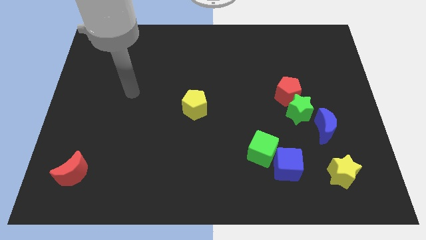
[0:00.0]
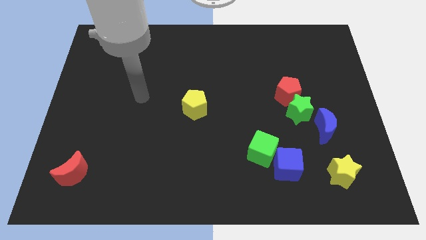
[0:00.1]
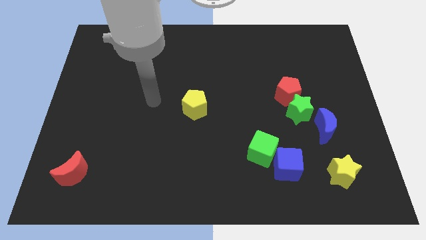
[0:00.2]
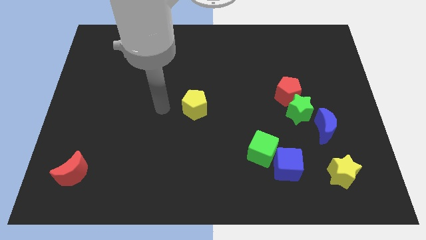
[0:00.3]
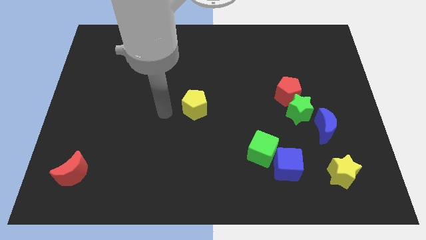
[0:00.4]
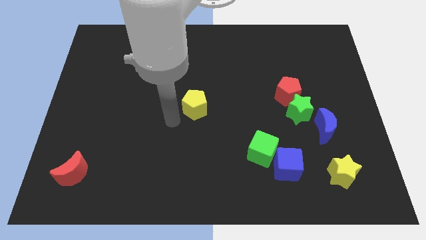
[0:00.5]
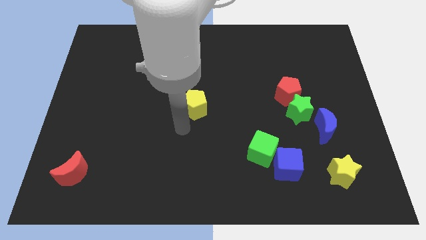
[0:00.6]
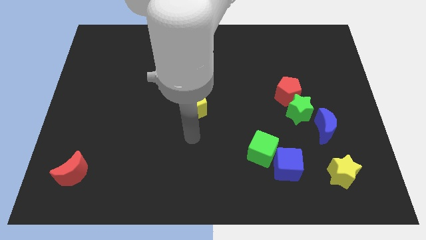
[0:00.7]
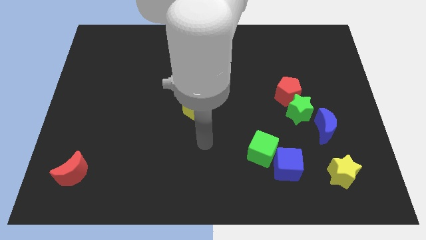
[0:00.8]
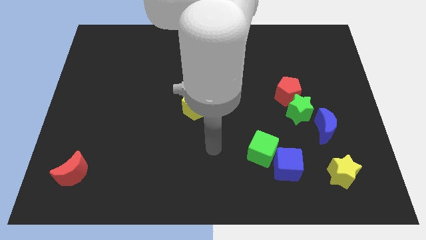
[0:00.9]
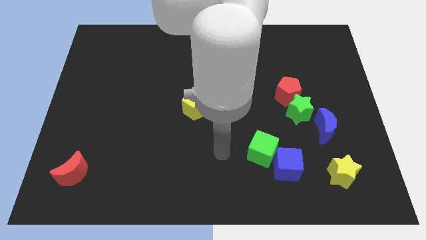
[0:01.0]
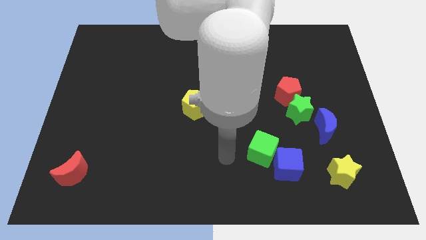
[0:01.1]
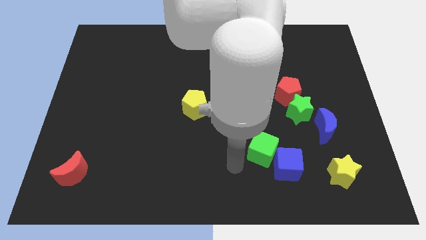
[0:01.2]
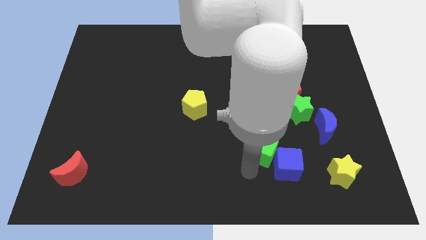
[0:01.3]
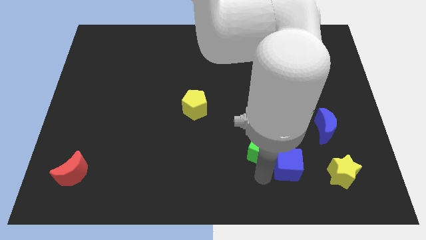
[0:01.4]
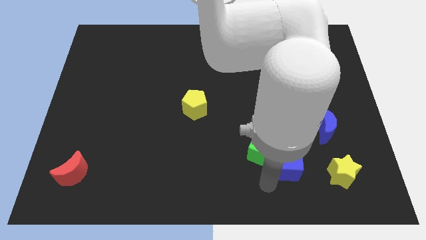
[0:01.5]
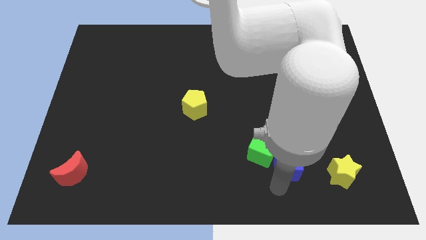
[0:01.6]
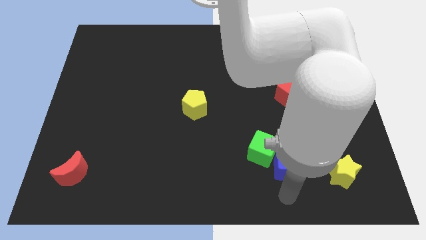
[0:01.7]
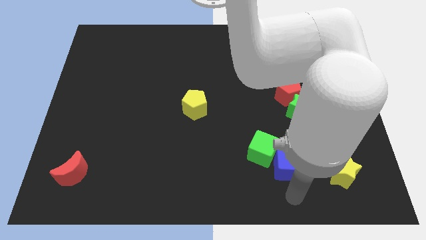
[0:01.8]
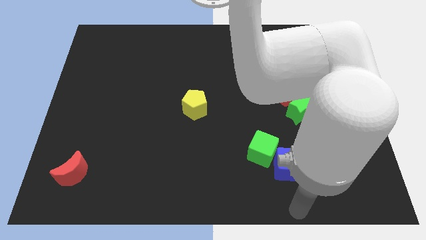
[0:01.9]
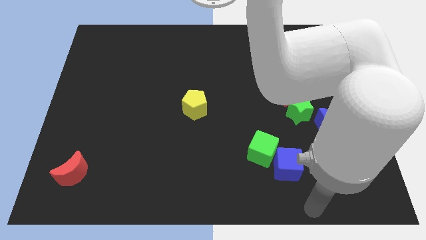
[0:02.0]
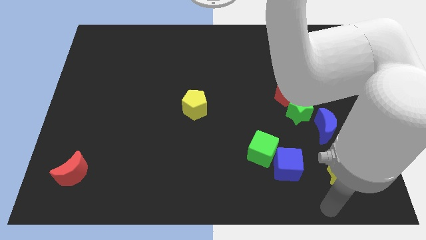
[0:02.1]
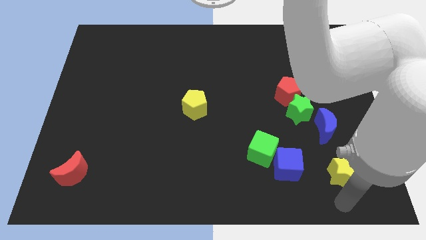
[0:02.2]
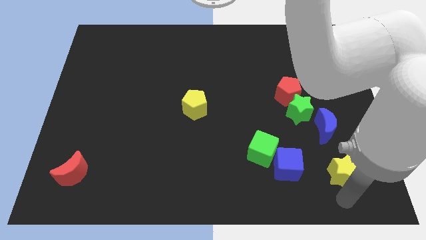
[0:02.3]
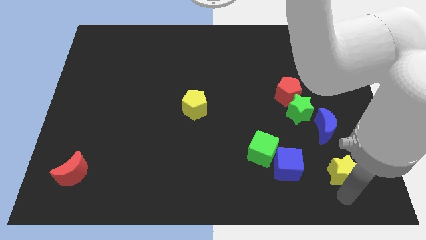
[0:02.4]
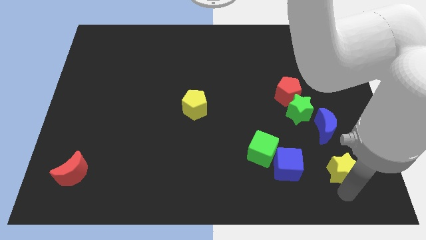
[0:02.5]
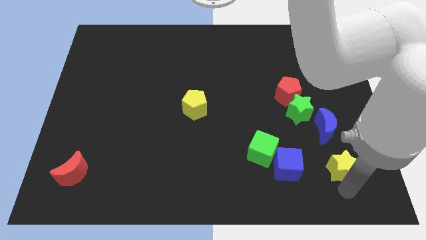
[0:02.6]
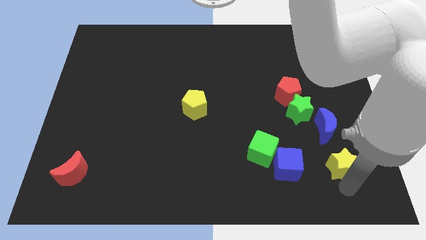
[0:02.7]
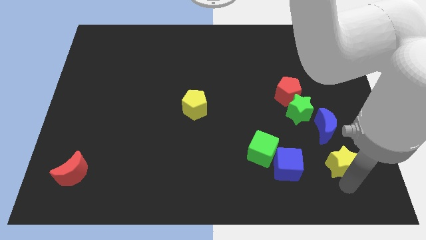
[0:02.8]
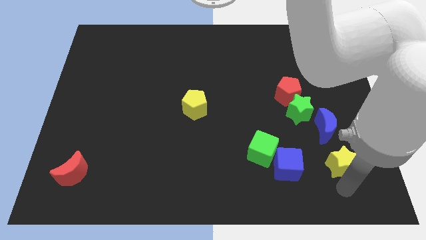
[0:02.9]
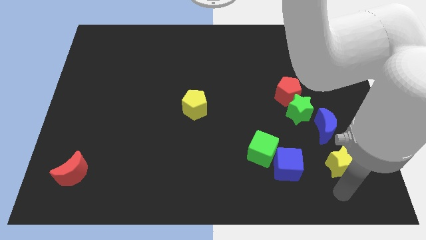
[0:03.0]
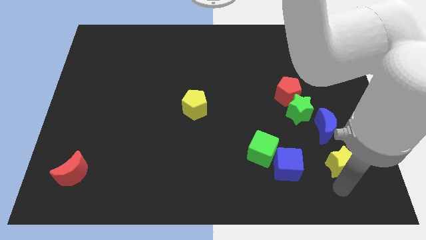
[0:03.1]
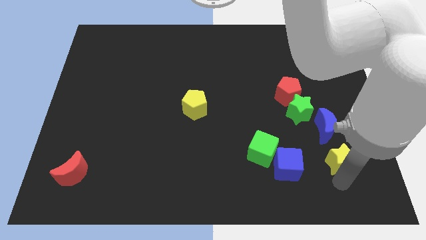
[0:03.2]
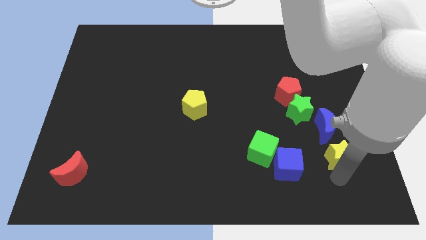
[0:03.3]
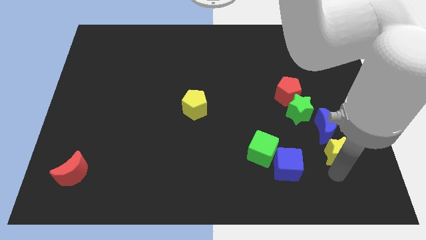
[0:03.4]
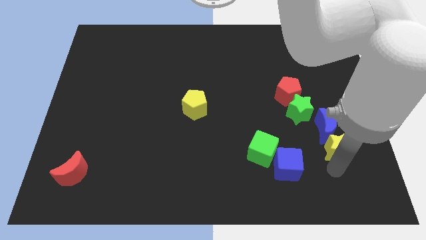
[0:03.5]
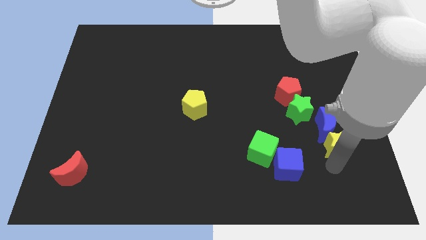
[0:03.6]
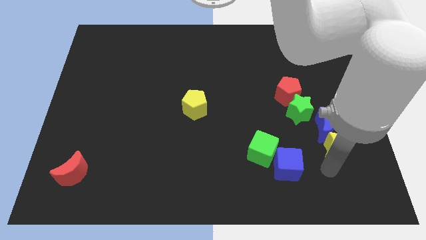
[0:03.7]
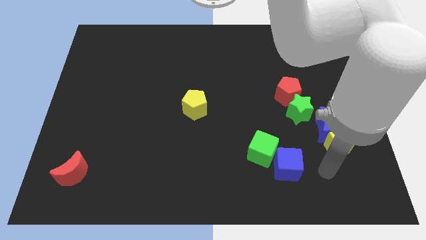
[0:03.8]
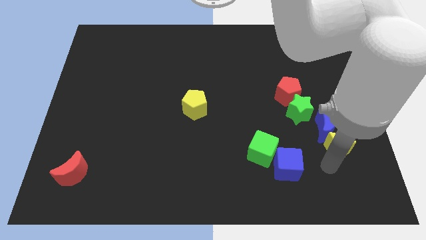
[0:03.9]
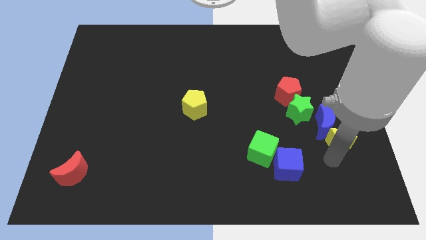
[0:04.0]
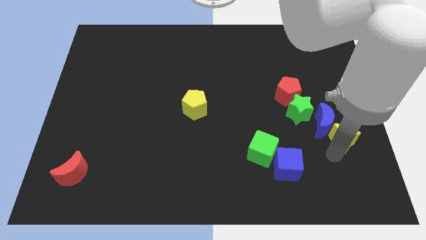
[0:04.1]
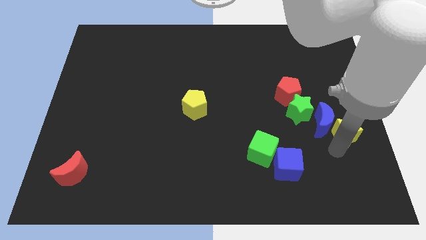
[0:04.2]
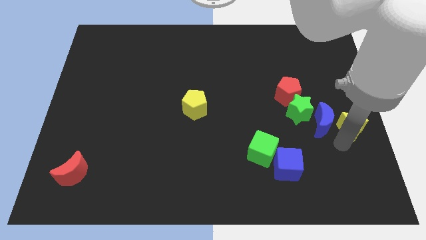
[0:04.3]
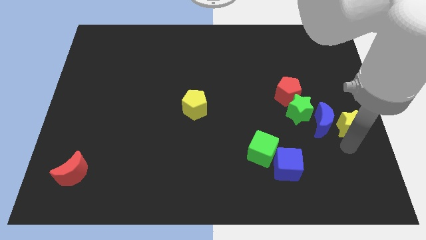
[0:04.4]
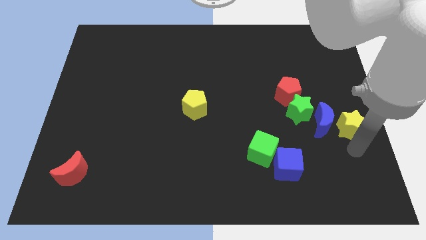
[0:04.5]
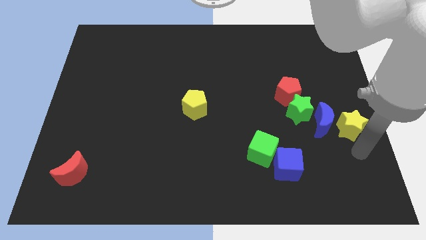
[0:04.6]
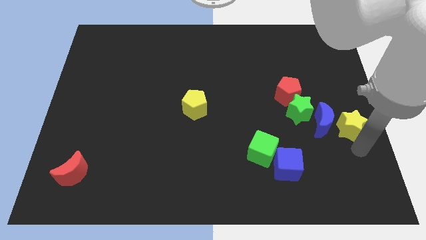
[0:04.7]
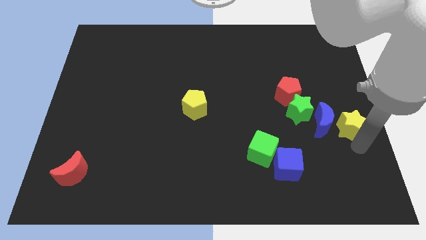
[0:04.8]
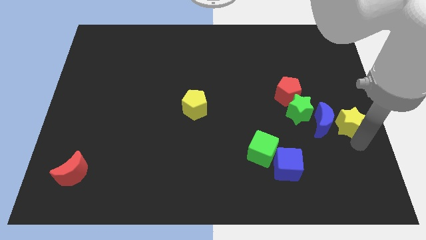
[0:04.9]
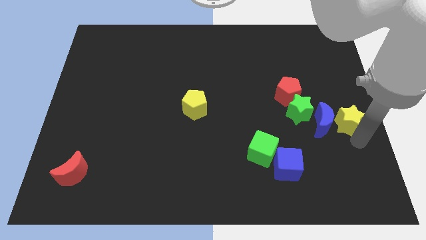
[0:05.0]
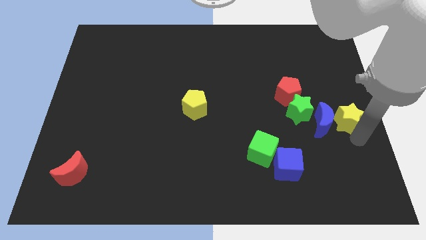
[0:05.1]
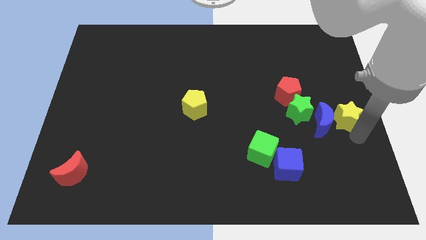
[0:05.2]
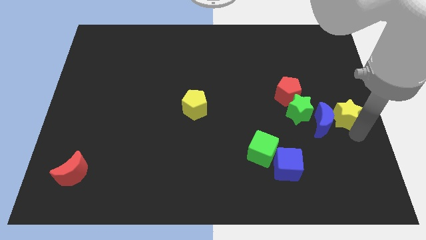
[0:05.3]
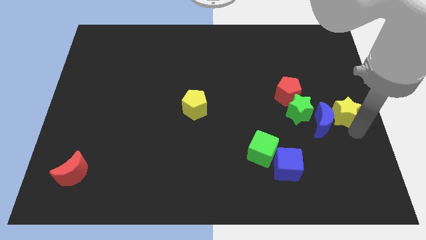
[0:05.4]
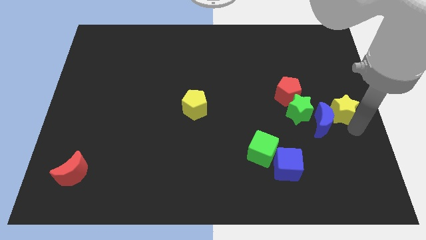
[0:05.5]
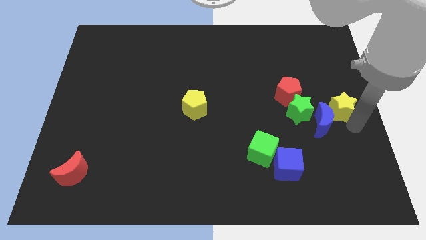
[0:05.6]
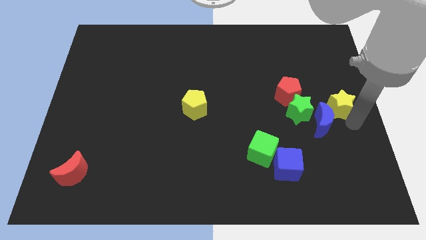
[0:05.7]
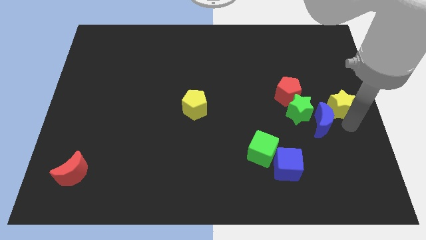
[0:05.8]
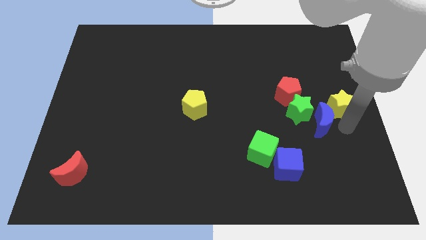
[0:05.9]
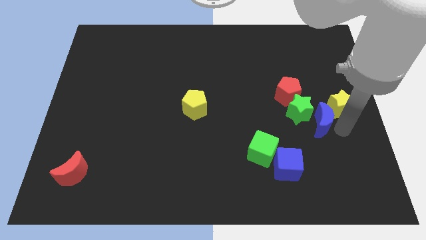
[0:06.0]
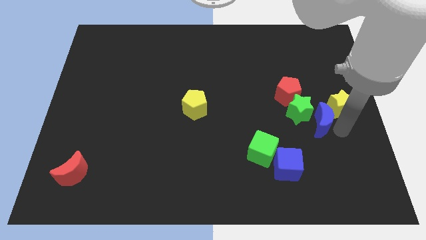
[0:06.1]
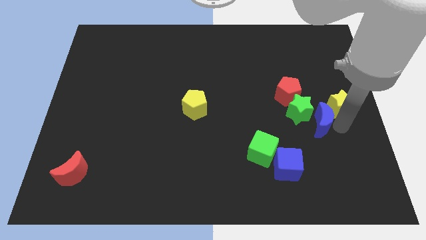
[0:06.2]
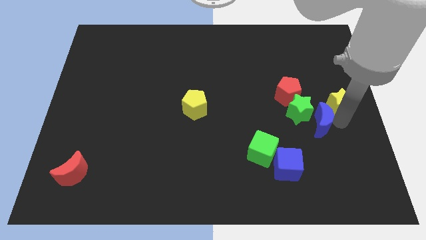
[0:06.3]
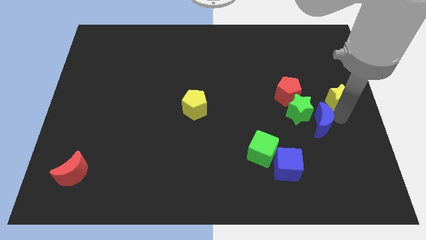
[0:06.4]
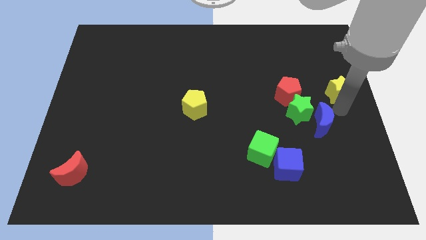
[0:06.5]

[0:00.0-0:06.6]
slide the yellow star up

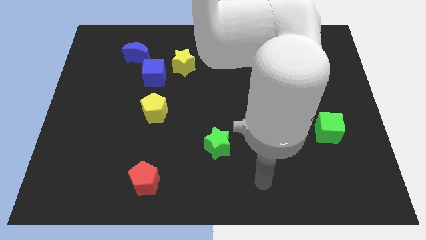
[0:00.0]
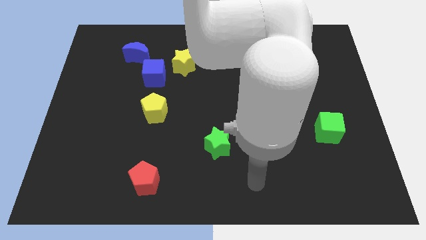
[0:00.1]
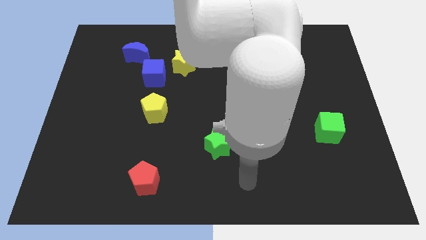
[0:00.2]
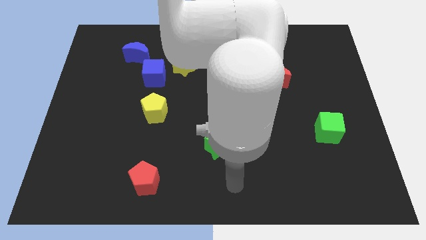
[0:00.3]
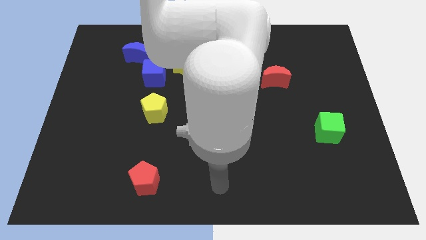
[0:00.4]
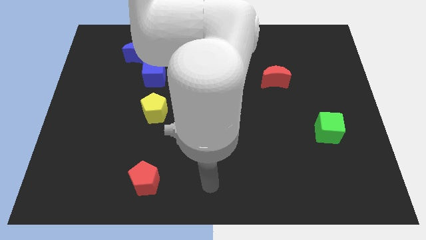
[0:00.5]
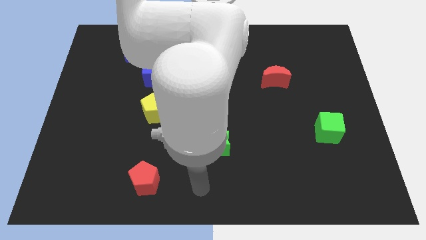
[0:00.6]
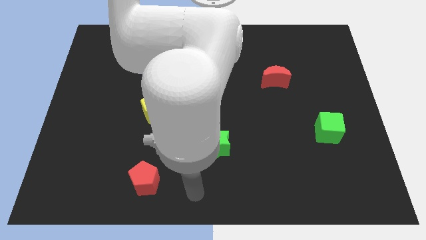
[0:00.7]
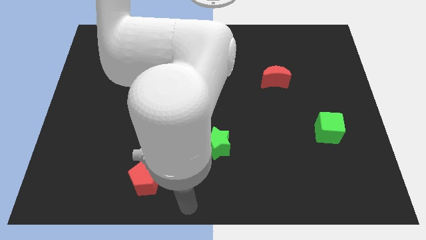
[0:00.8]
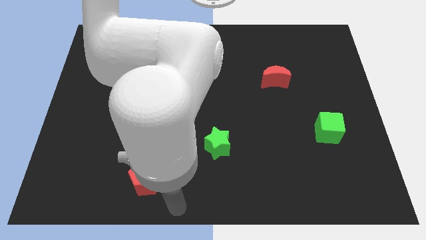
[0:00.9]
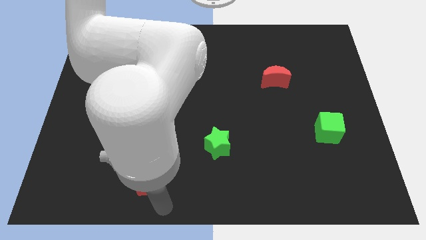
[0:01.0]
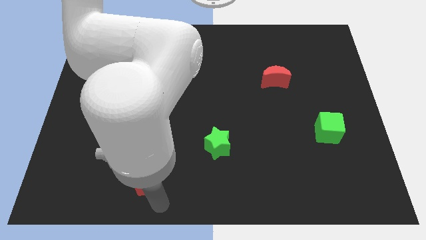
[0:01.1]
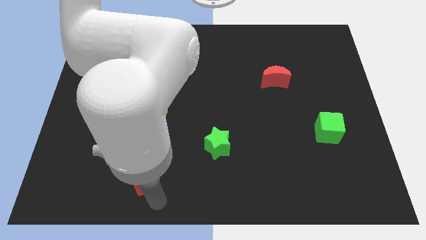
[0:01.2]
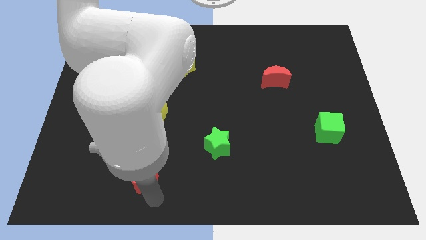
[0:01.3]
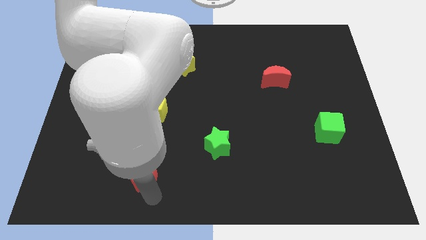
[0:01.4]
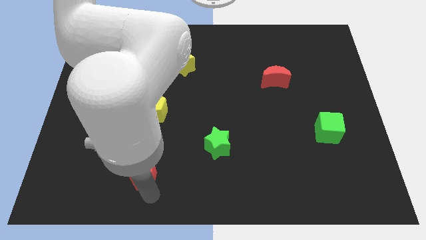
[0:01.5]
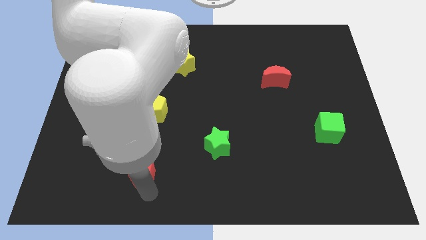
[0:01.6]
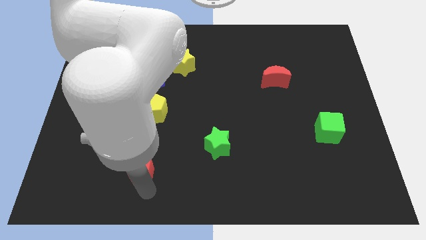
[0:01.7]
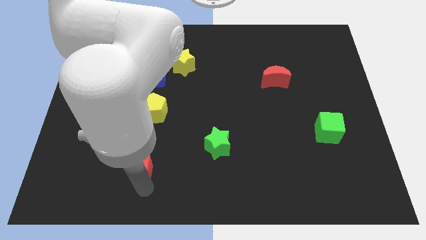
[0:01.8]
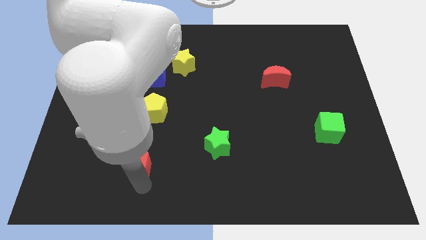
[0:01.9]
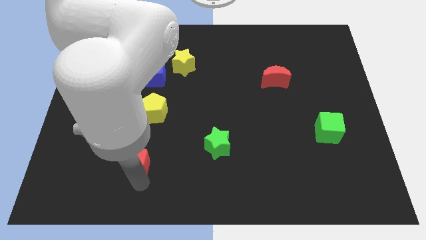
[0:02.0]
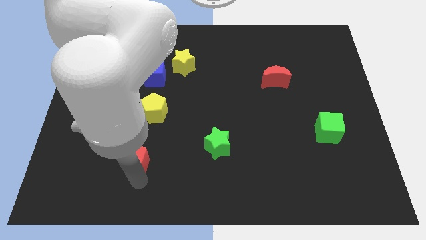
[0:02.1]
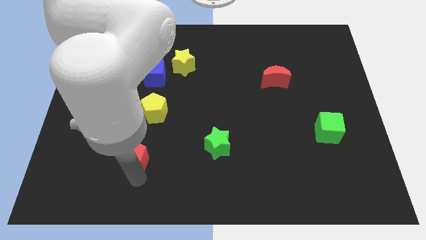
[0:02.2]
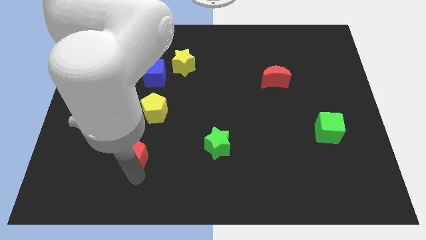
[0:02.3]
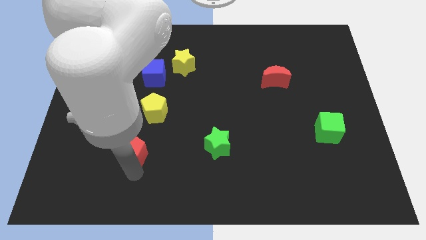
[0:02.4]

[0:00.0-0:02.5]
push the red pentagon upwards and left diagonally a bit
